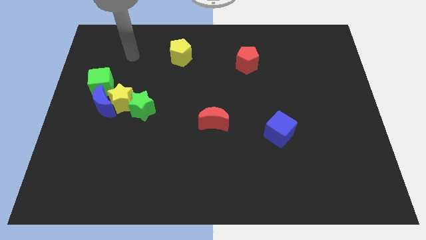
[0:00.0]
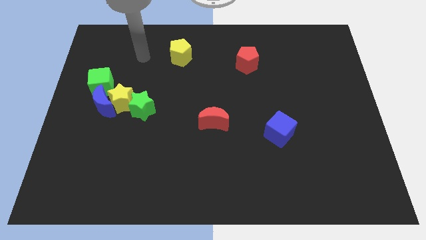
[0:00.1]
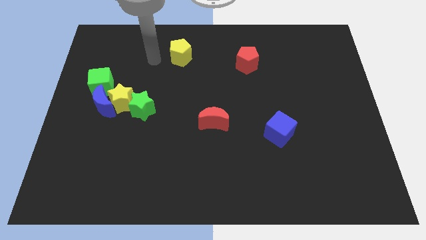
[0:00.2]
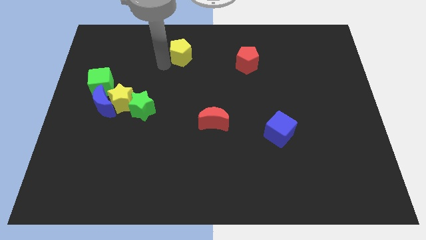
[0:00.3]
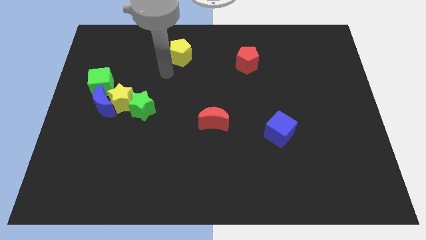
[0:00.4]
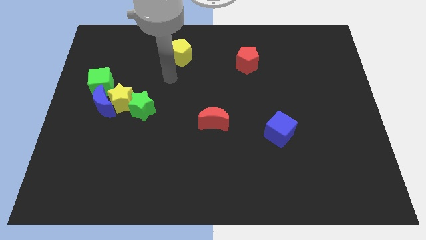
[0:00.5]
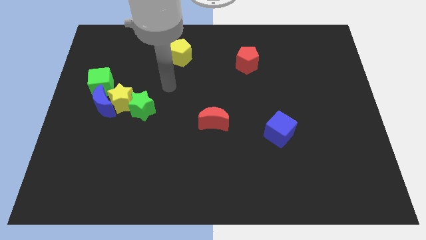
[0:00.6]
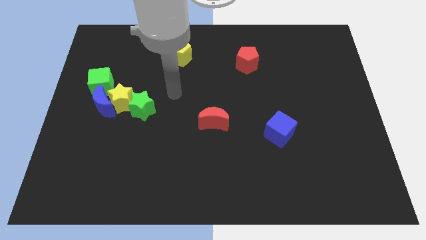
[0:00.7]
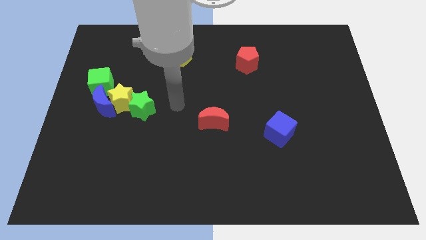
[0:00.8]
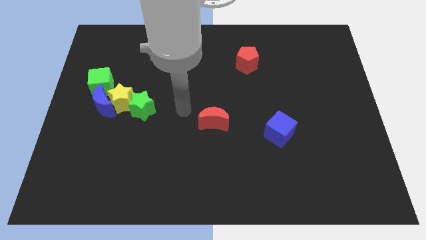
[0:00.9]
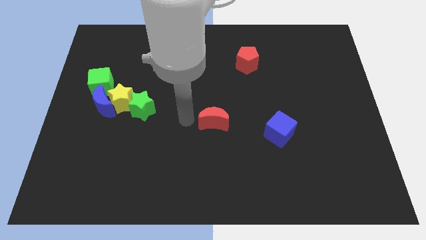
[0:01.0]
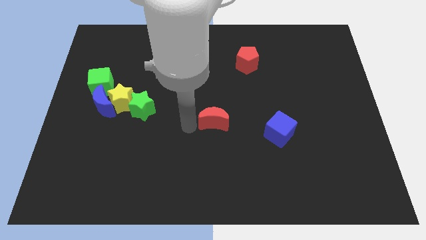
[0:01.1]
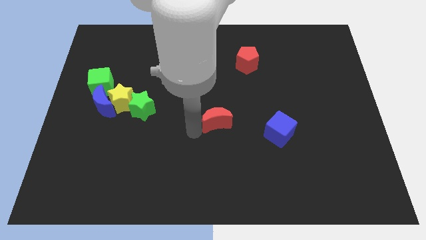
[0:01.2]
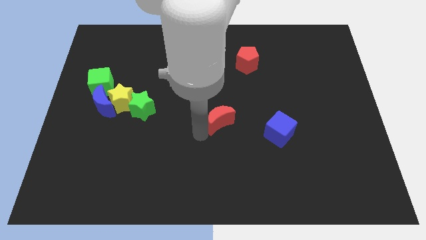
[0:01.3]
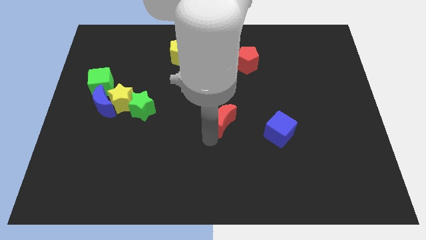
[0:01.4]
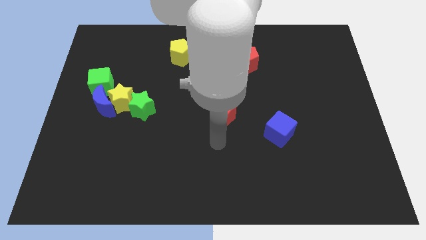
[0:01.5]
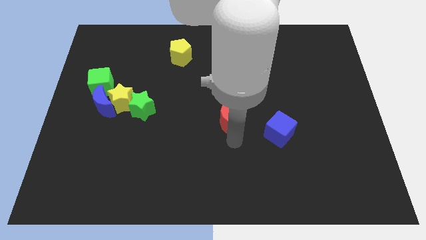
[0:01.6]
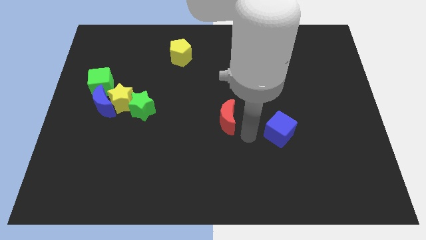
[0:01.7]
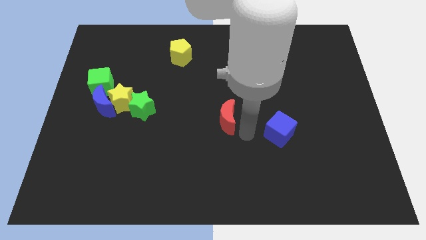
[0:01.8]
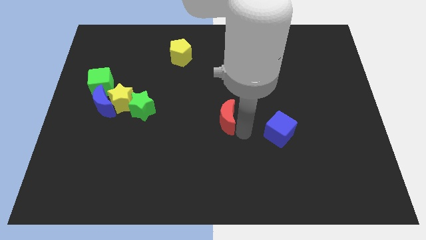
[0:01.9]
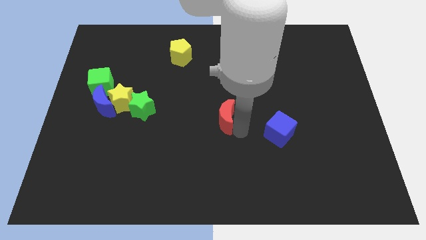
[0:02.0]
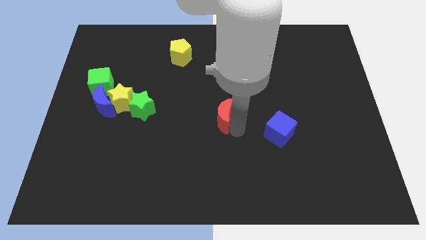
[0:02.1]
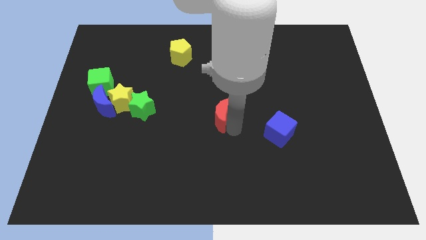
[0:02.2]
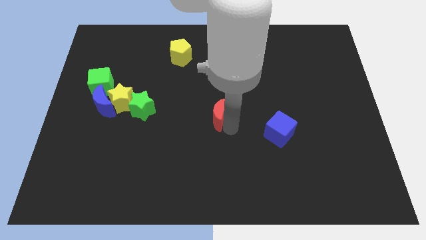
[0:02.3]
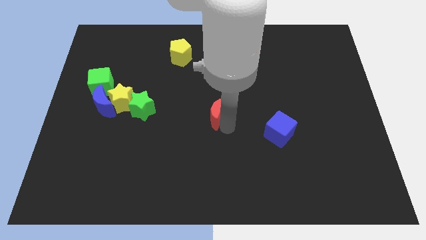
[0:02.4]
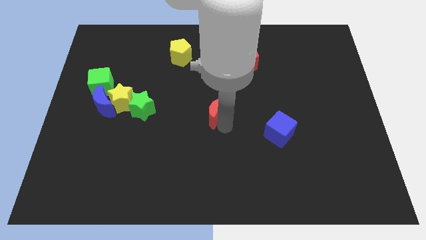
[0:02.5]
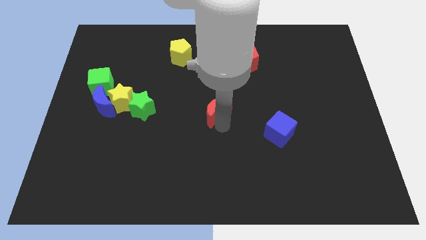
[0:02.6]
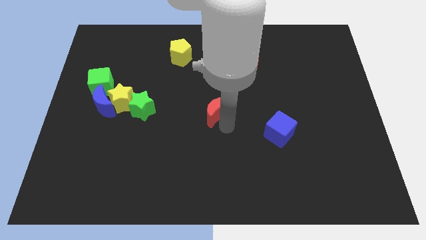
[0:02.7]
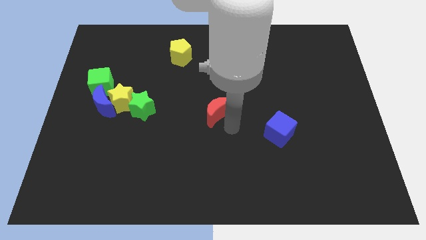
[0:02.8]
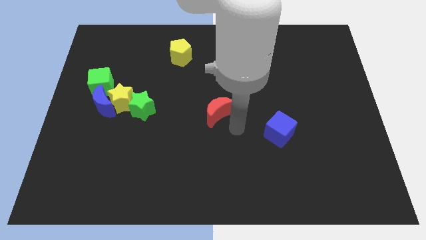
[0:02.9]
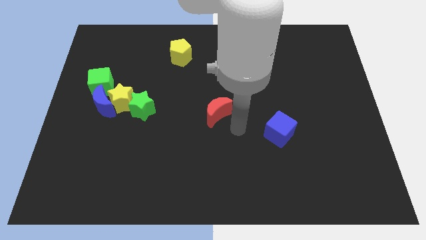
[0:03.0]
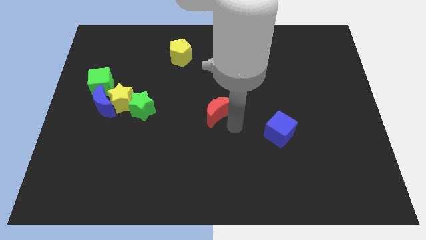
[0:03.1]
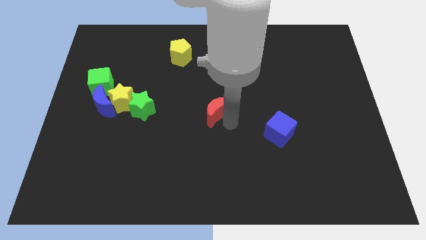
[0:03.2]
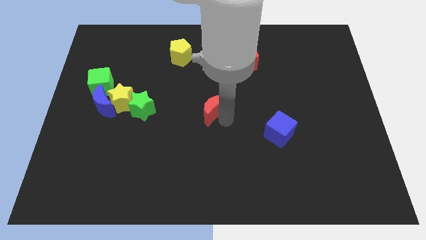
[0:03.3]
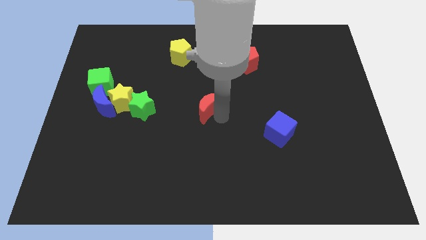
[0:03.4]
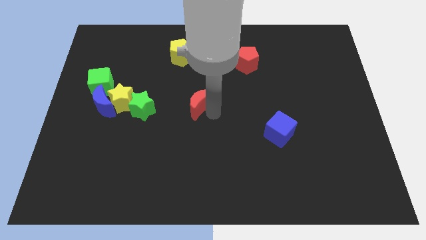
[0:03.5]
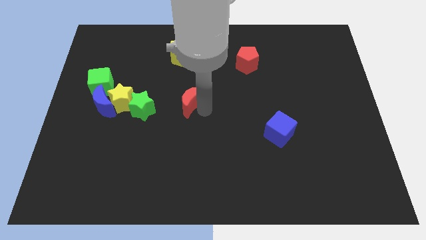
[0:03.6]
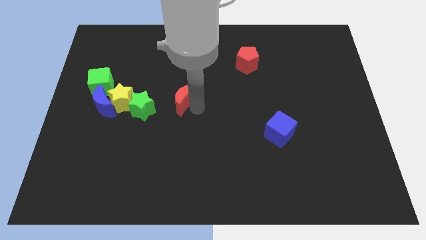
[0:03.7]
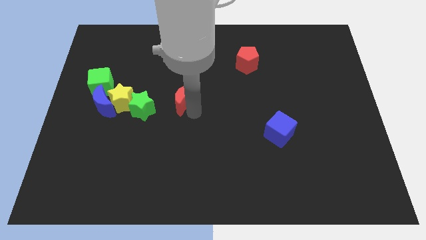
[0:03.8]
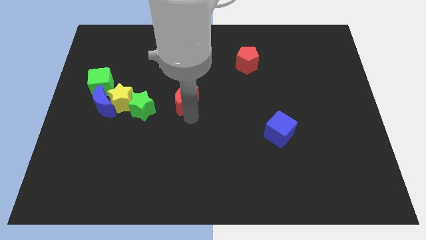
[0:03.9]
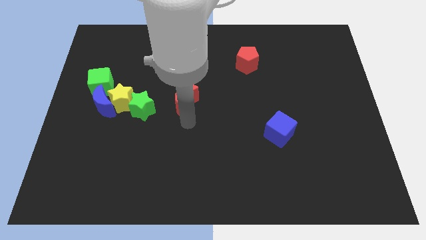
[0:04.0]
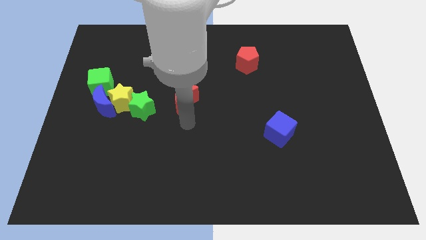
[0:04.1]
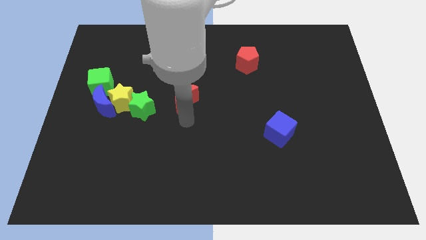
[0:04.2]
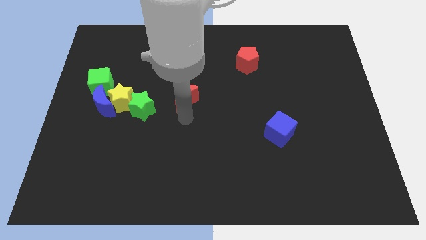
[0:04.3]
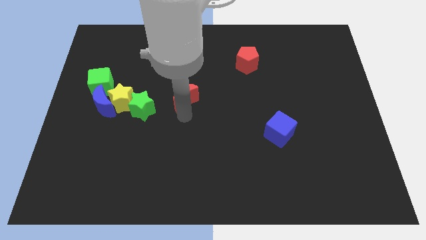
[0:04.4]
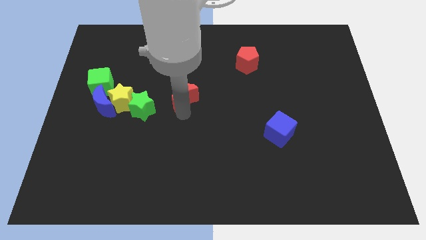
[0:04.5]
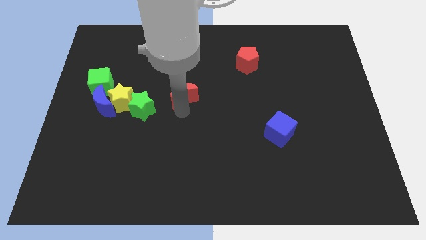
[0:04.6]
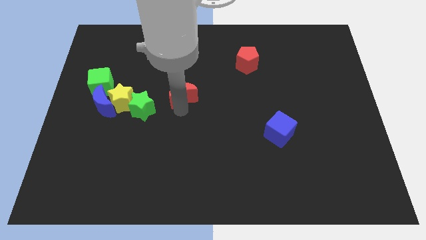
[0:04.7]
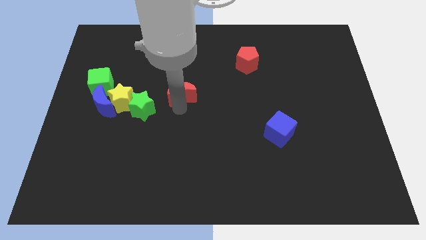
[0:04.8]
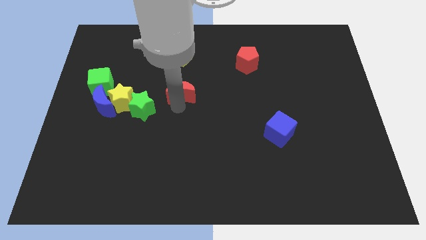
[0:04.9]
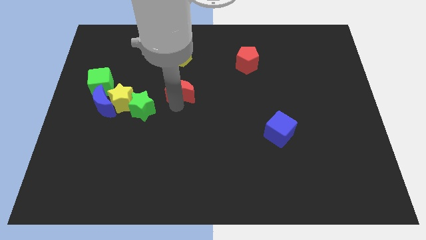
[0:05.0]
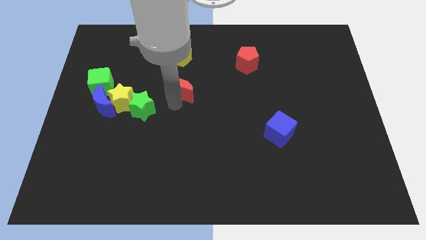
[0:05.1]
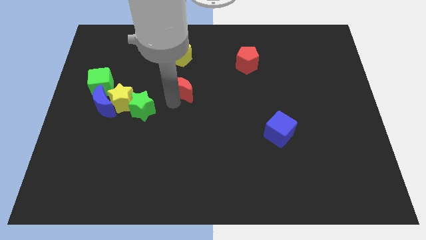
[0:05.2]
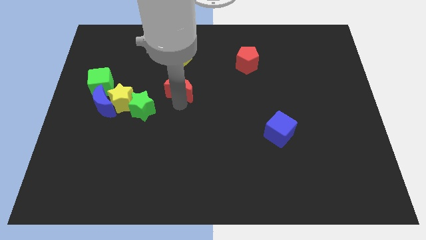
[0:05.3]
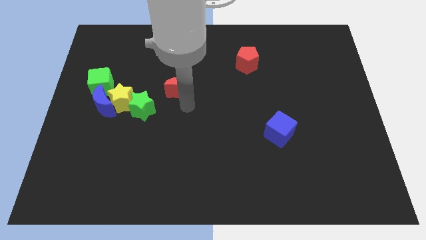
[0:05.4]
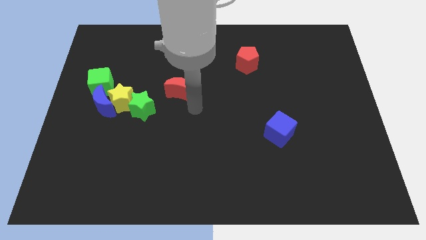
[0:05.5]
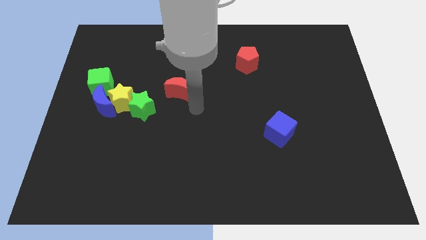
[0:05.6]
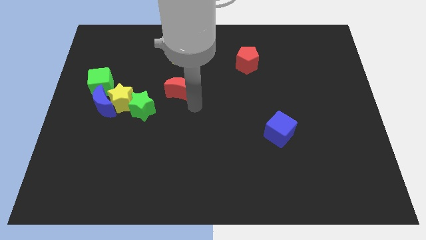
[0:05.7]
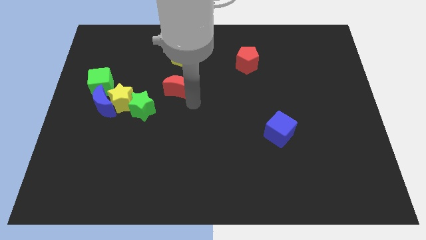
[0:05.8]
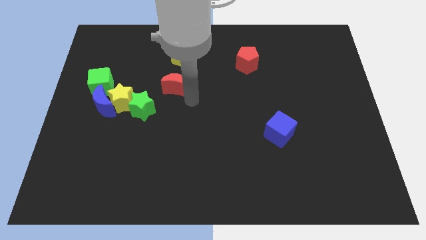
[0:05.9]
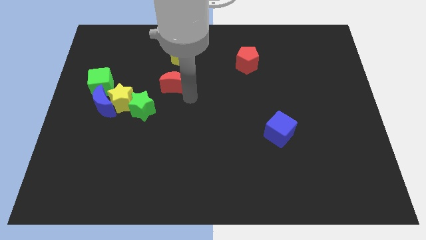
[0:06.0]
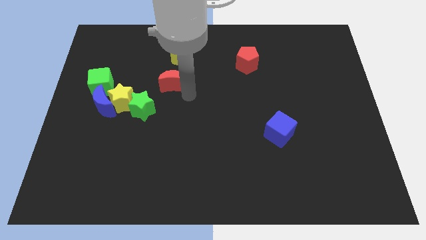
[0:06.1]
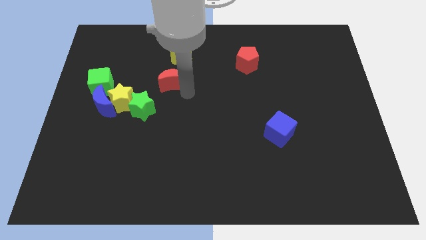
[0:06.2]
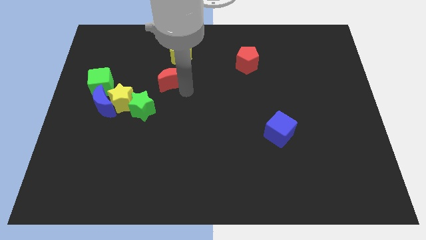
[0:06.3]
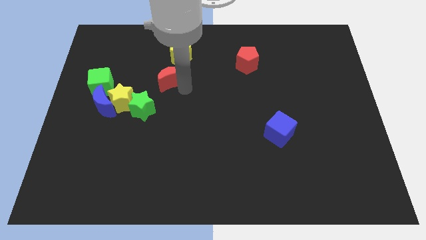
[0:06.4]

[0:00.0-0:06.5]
move the red moon to the bottom left of the yellow pentagon

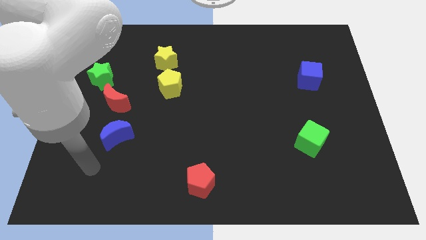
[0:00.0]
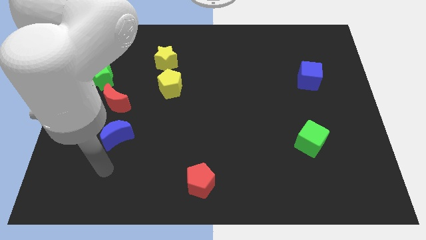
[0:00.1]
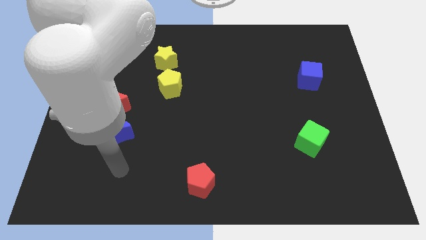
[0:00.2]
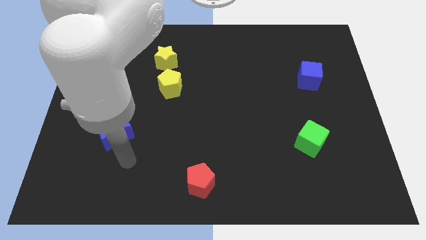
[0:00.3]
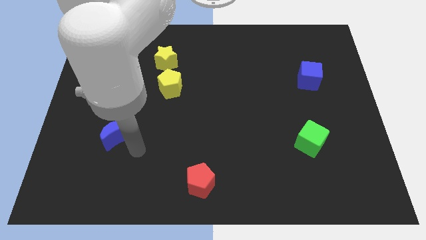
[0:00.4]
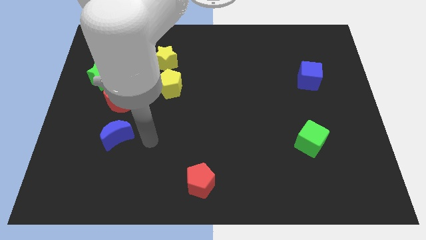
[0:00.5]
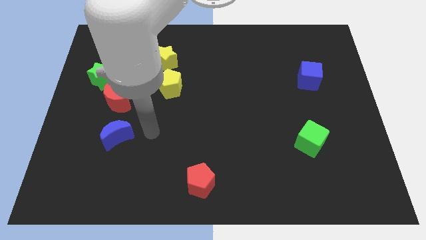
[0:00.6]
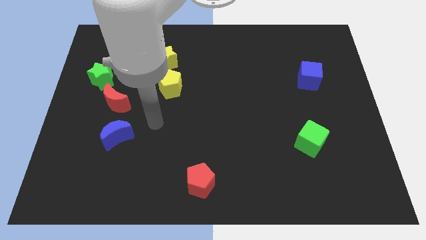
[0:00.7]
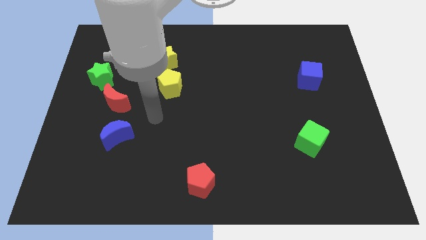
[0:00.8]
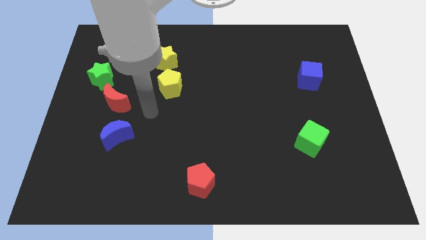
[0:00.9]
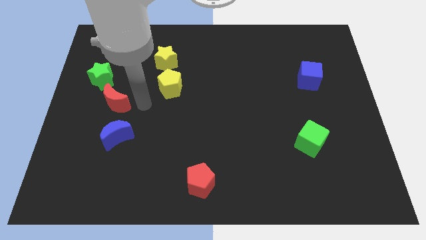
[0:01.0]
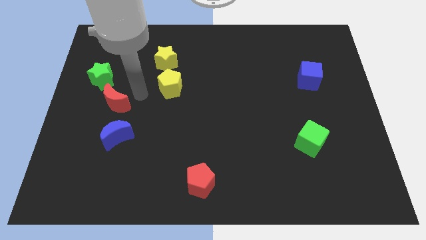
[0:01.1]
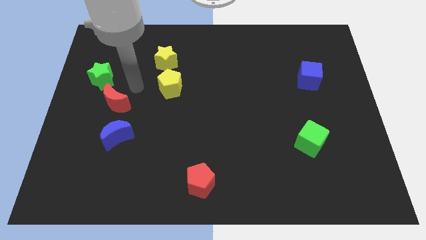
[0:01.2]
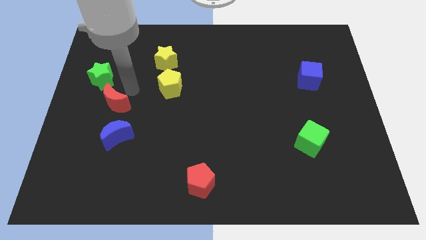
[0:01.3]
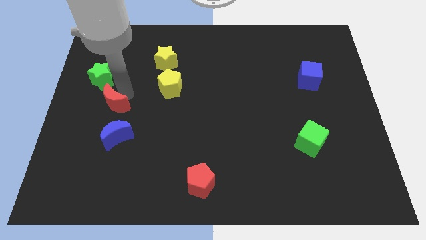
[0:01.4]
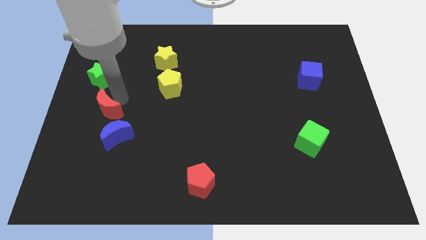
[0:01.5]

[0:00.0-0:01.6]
slide the red moon diagonally up and to the left of the blue moon
